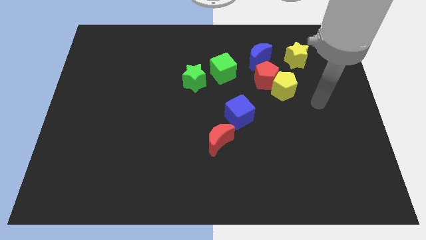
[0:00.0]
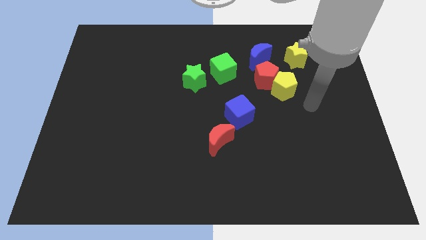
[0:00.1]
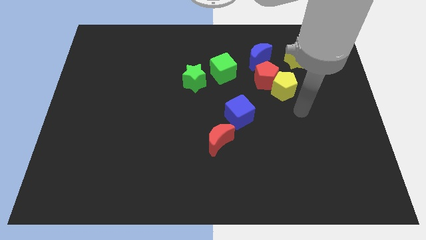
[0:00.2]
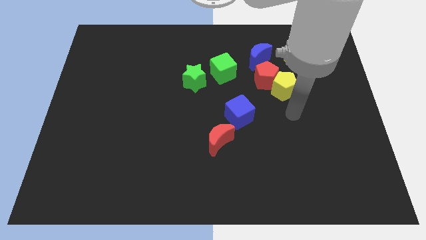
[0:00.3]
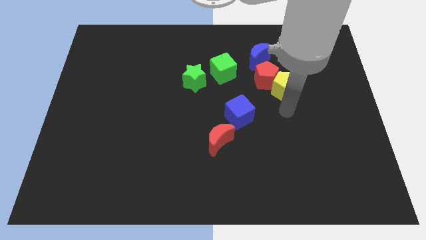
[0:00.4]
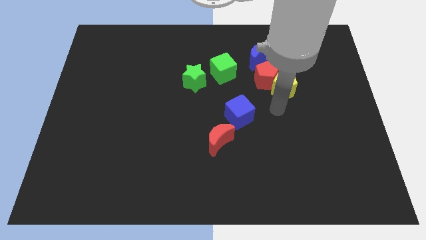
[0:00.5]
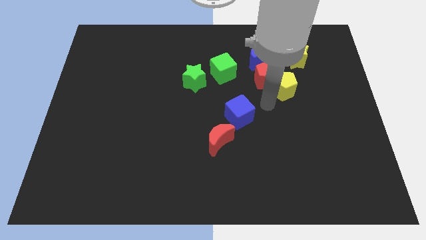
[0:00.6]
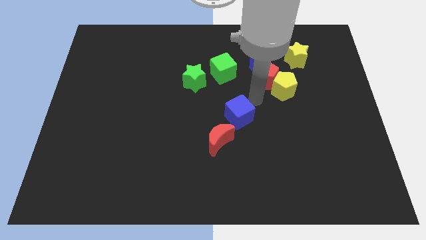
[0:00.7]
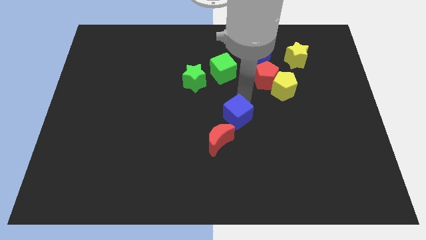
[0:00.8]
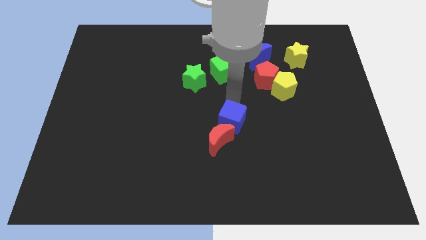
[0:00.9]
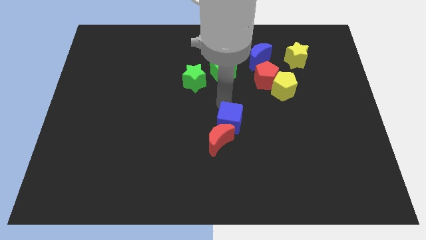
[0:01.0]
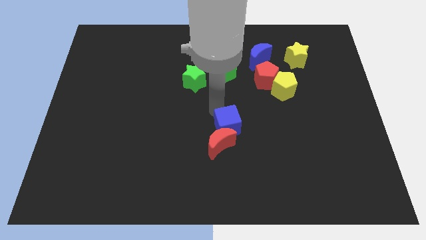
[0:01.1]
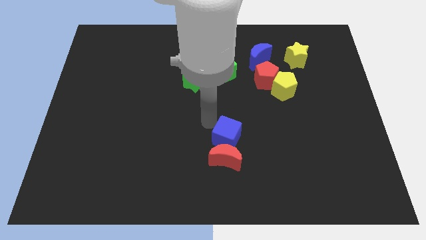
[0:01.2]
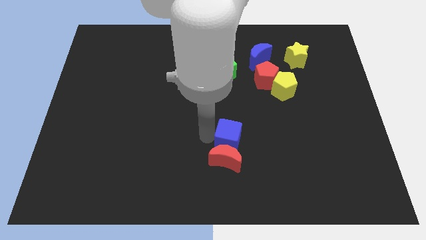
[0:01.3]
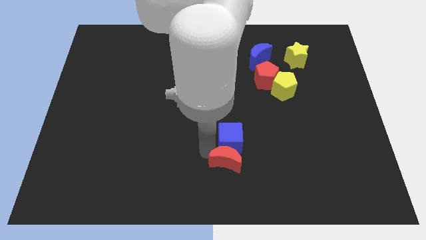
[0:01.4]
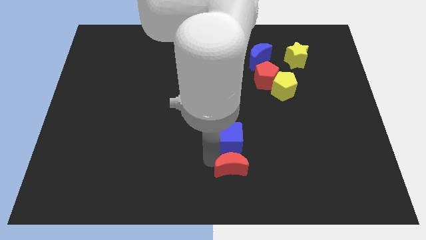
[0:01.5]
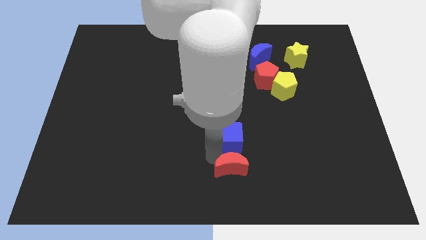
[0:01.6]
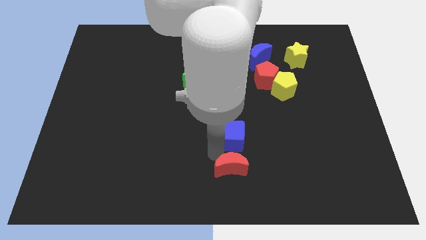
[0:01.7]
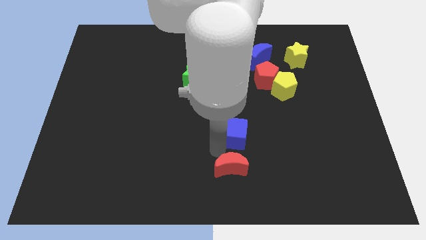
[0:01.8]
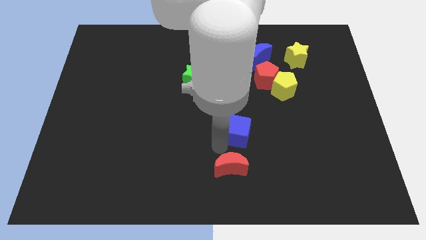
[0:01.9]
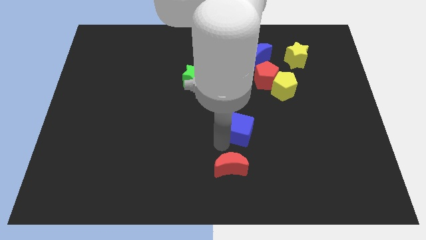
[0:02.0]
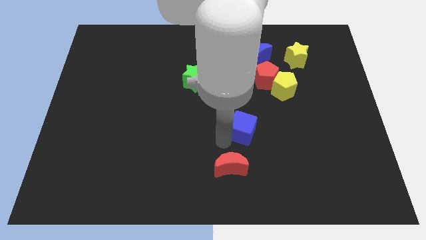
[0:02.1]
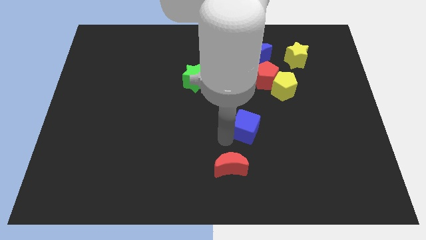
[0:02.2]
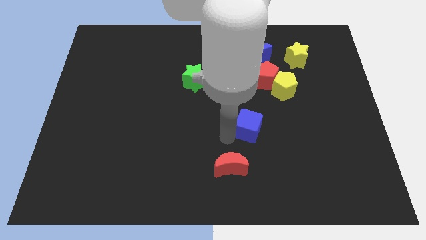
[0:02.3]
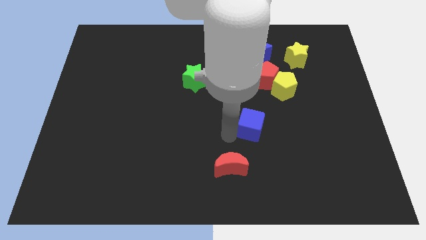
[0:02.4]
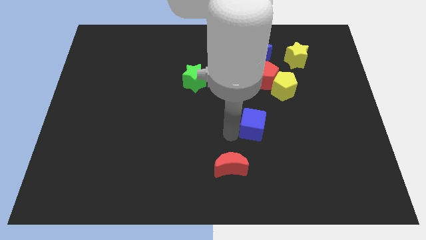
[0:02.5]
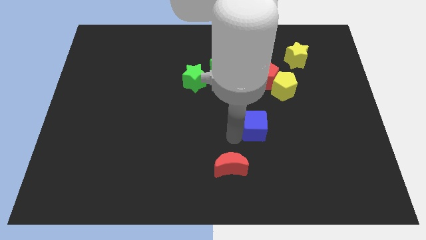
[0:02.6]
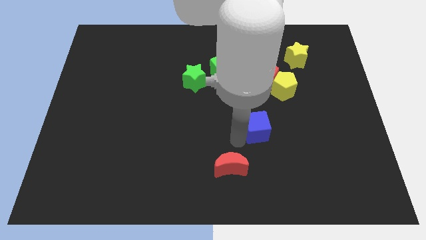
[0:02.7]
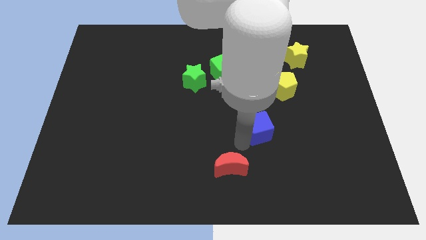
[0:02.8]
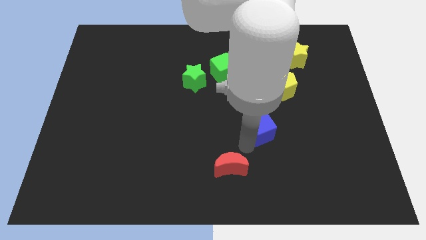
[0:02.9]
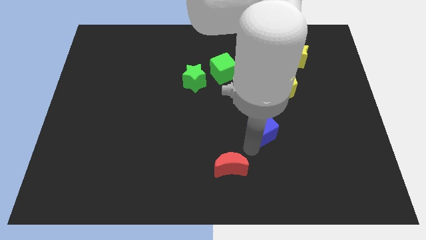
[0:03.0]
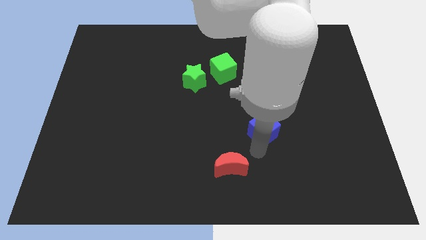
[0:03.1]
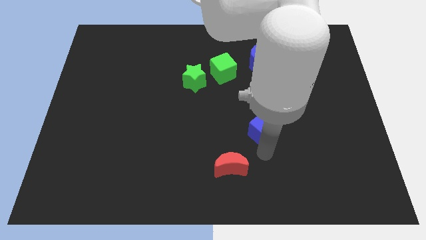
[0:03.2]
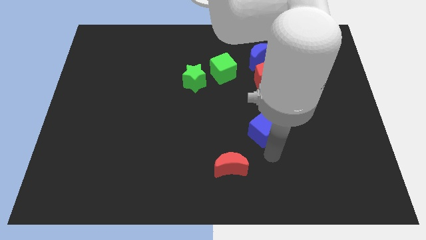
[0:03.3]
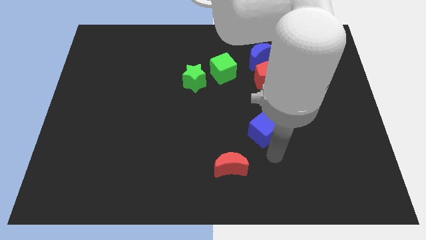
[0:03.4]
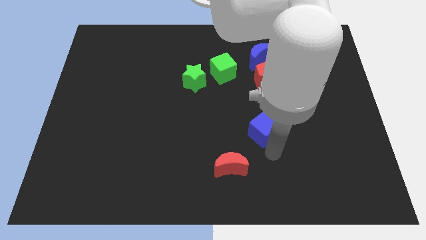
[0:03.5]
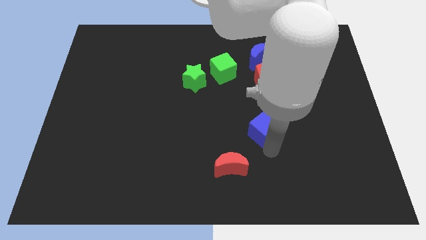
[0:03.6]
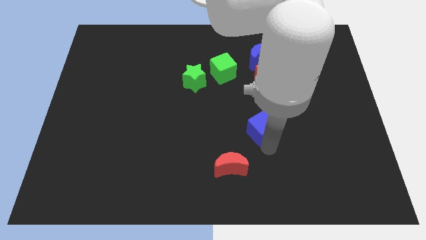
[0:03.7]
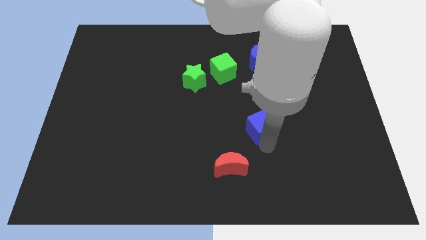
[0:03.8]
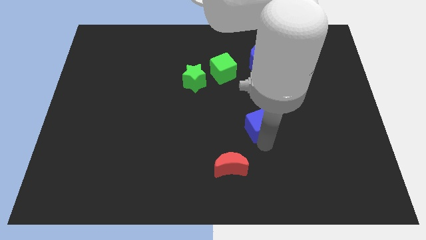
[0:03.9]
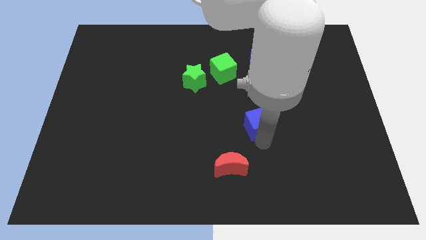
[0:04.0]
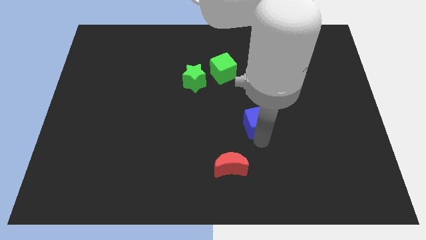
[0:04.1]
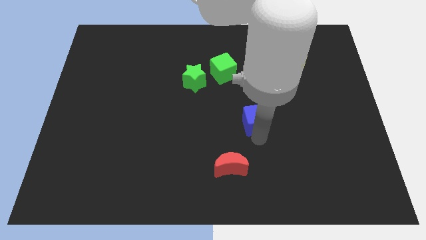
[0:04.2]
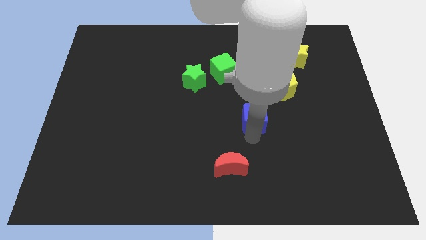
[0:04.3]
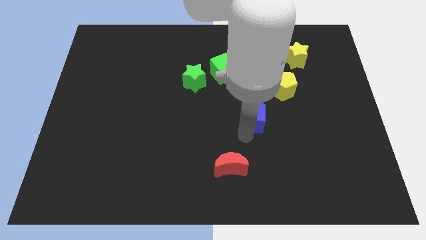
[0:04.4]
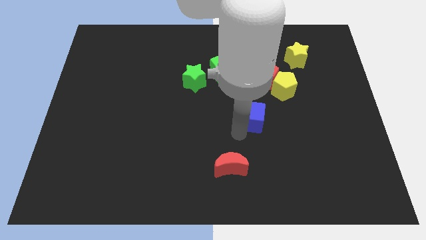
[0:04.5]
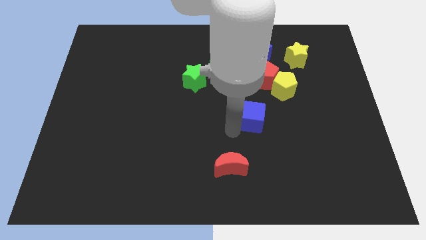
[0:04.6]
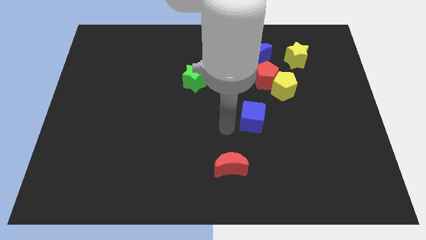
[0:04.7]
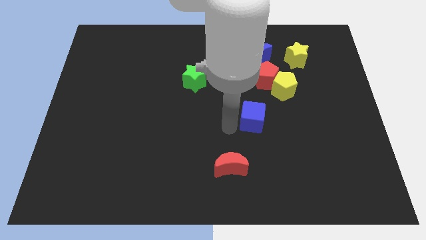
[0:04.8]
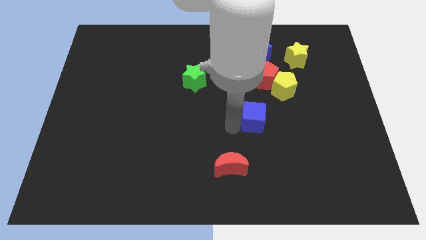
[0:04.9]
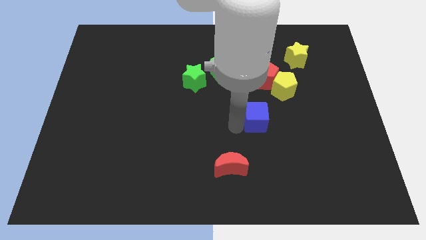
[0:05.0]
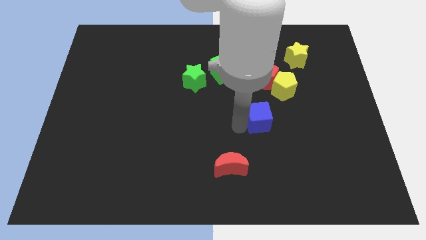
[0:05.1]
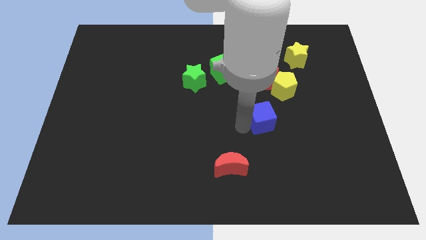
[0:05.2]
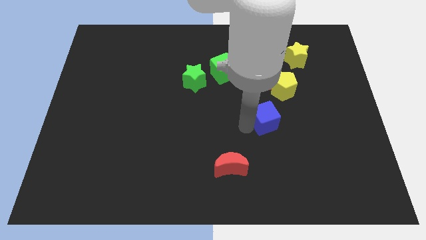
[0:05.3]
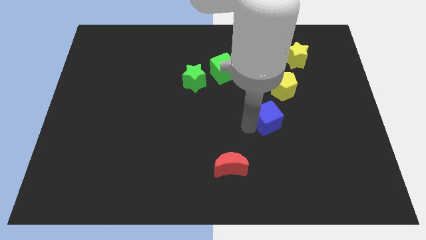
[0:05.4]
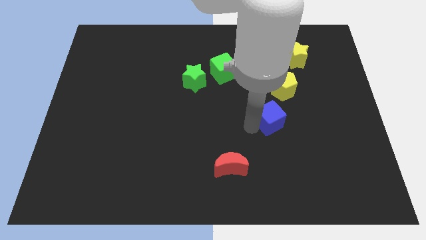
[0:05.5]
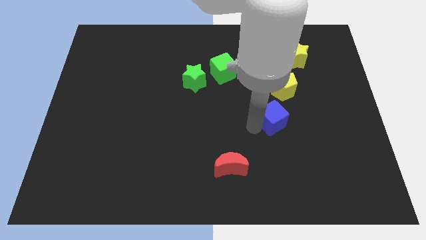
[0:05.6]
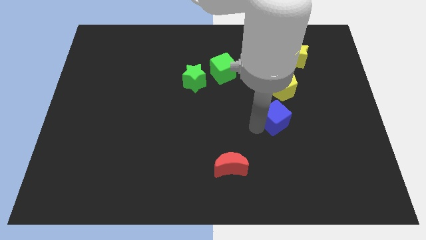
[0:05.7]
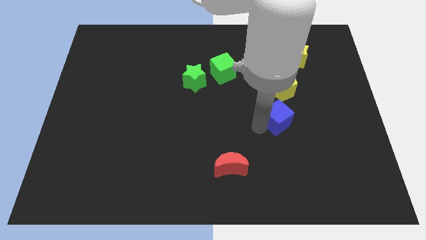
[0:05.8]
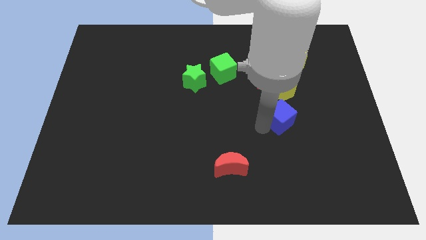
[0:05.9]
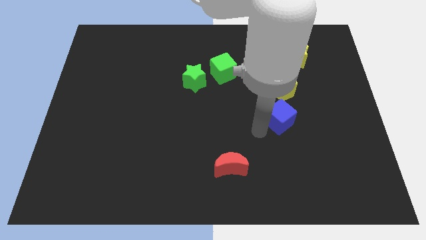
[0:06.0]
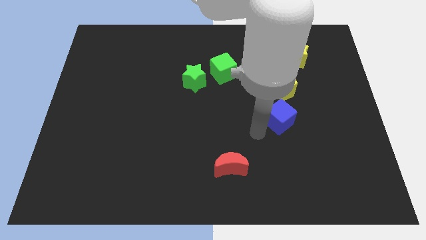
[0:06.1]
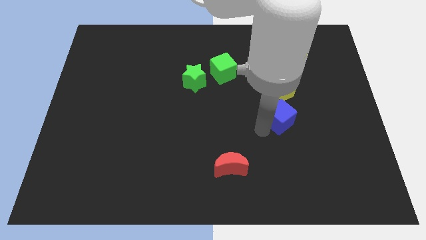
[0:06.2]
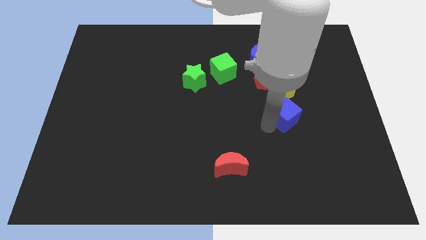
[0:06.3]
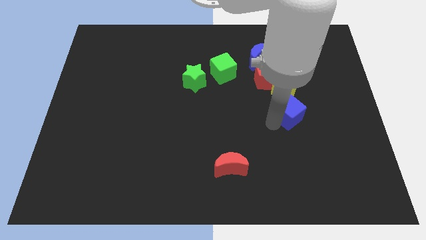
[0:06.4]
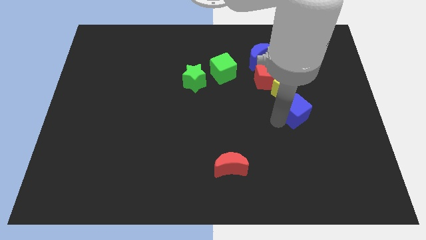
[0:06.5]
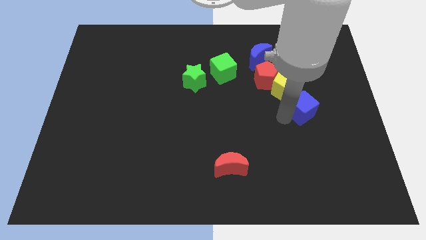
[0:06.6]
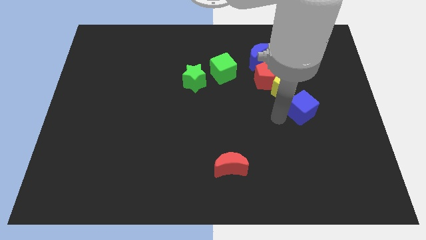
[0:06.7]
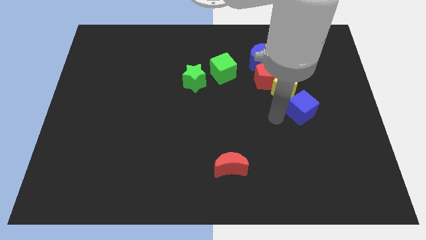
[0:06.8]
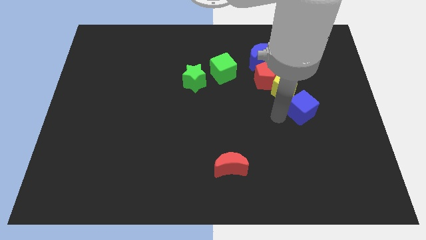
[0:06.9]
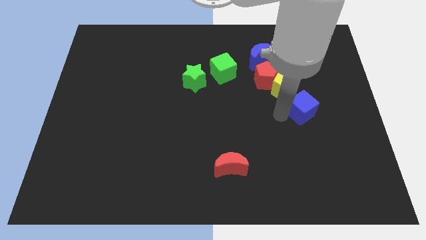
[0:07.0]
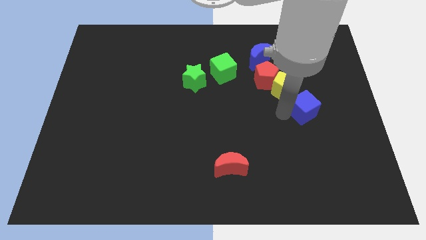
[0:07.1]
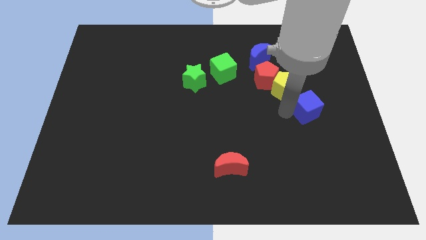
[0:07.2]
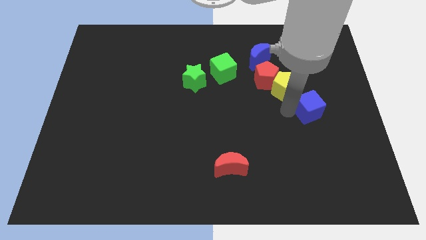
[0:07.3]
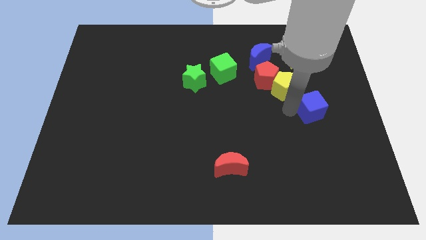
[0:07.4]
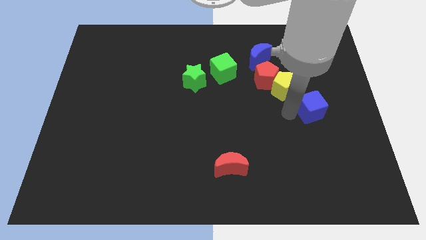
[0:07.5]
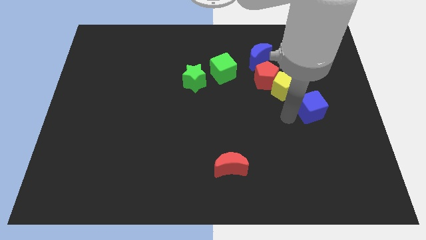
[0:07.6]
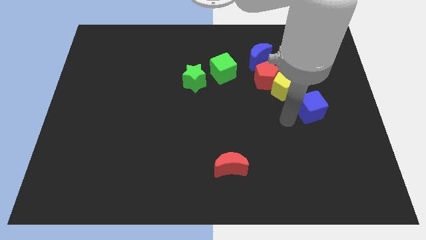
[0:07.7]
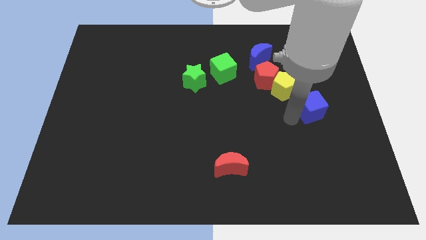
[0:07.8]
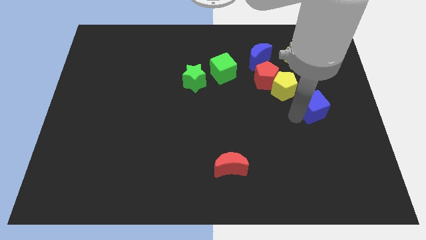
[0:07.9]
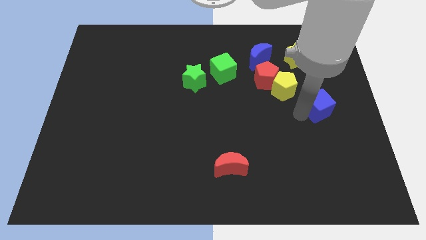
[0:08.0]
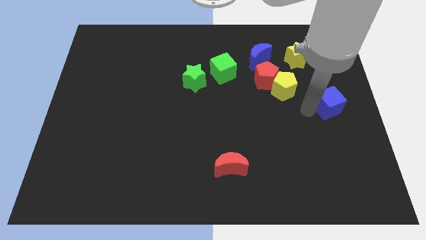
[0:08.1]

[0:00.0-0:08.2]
push the blue cube to the center right
